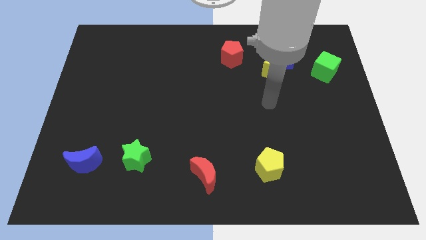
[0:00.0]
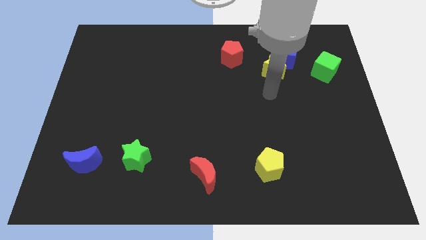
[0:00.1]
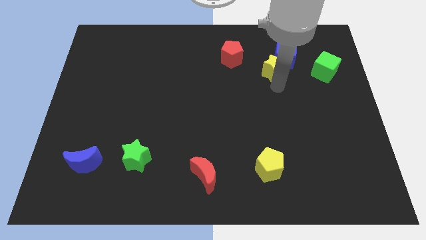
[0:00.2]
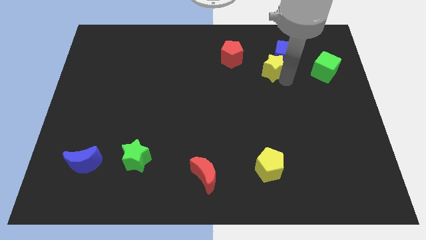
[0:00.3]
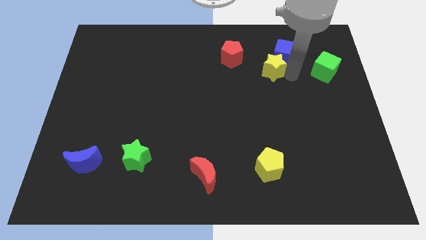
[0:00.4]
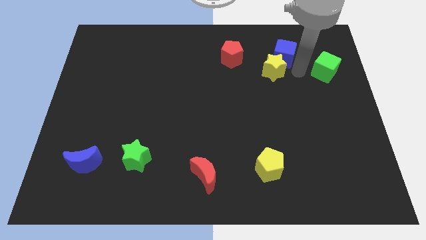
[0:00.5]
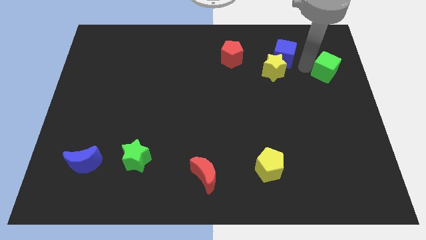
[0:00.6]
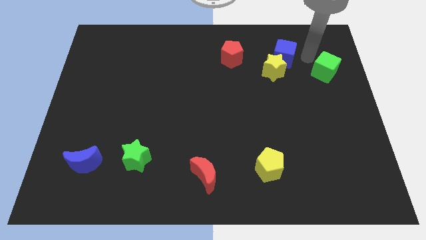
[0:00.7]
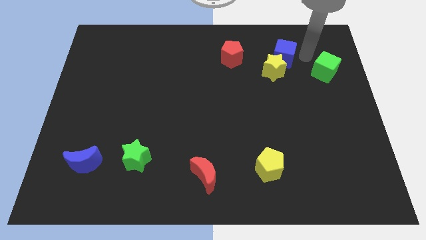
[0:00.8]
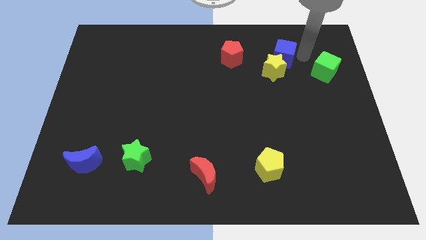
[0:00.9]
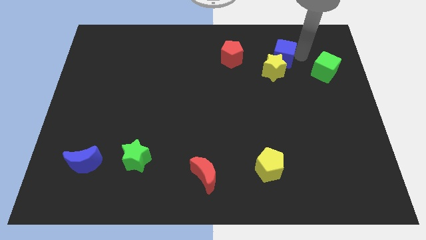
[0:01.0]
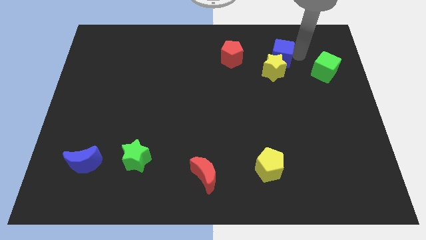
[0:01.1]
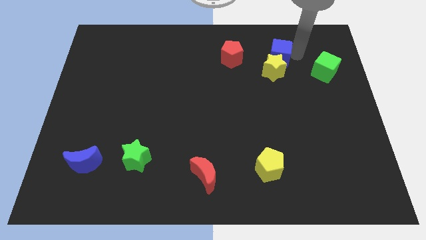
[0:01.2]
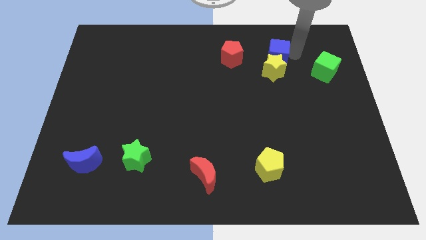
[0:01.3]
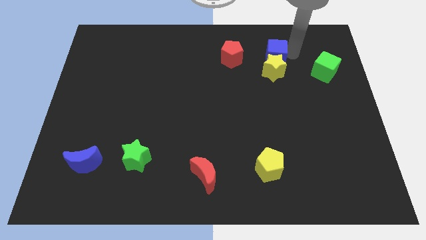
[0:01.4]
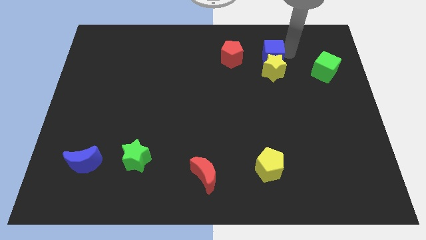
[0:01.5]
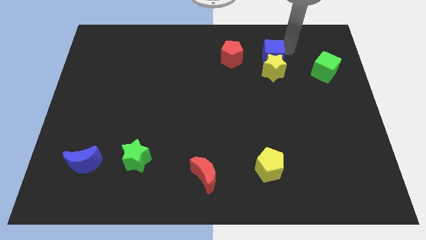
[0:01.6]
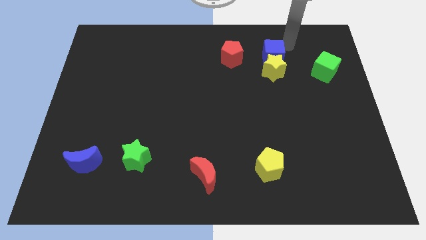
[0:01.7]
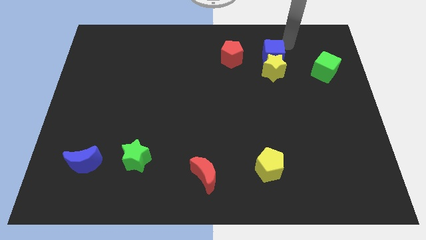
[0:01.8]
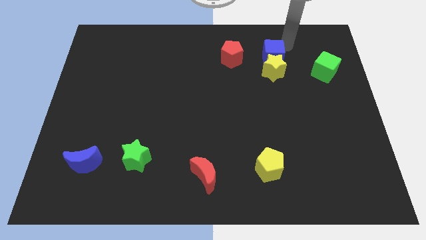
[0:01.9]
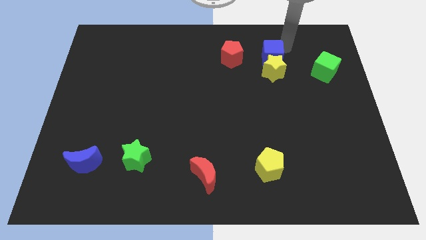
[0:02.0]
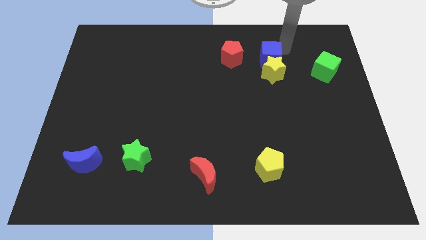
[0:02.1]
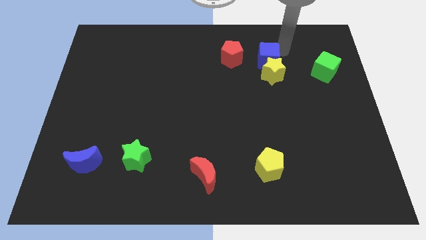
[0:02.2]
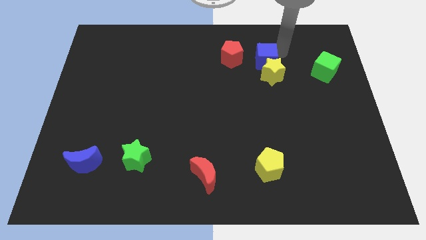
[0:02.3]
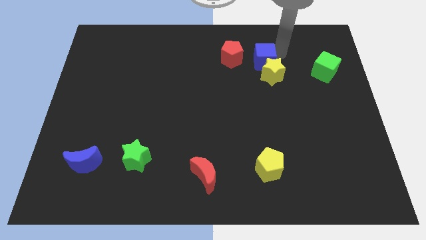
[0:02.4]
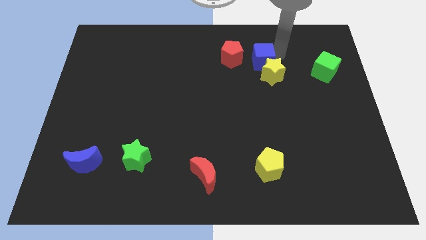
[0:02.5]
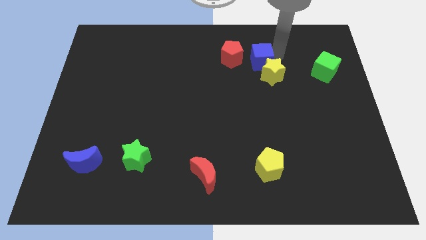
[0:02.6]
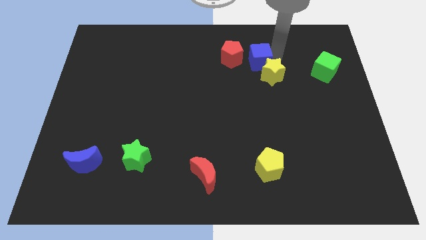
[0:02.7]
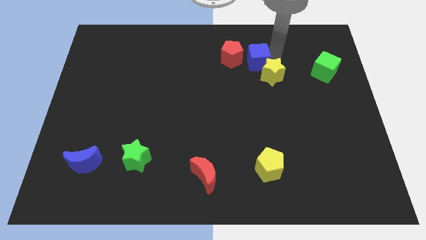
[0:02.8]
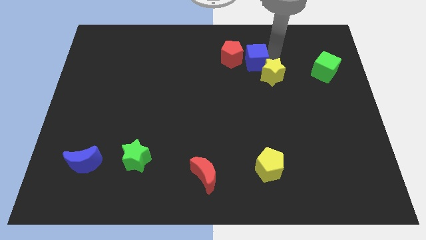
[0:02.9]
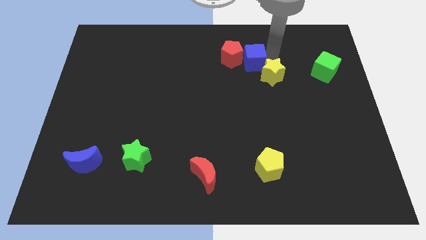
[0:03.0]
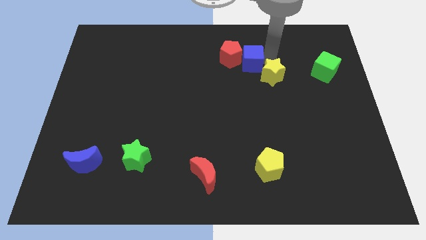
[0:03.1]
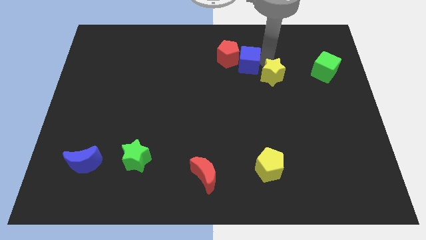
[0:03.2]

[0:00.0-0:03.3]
push the blue cube downwards and to the left slightly

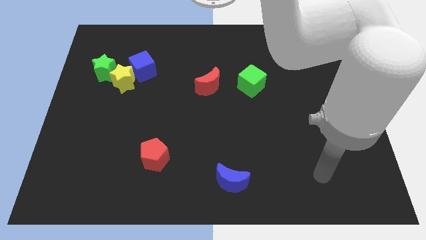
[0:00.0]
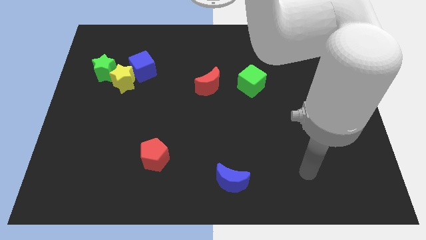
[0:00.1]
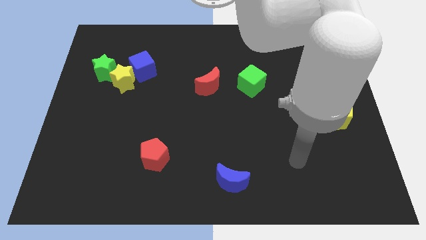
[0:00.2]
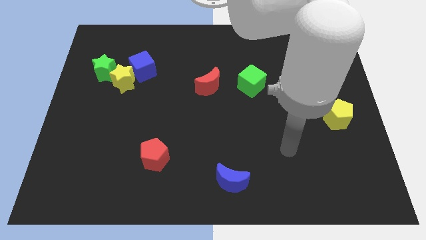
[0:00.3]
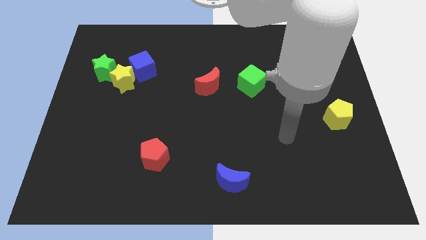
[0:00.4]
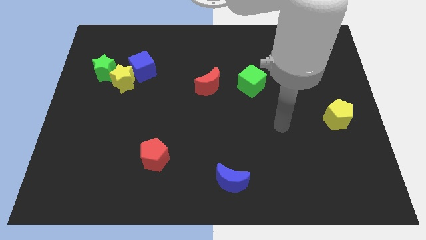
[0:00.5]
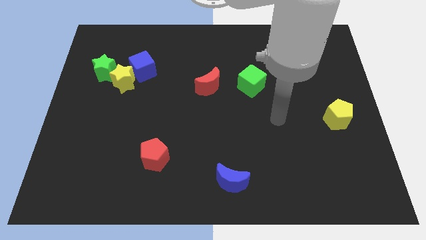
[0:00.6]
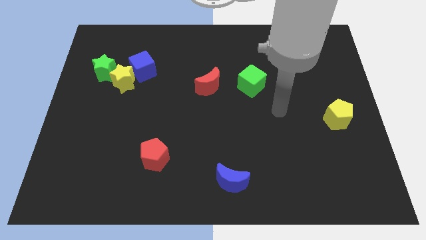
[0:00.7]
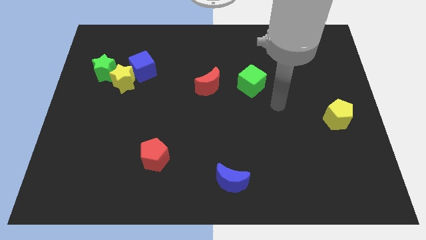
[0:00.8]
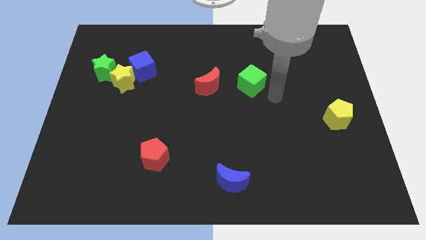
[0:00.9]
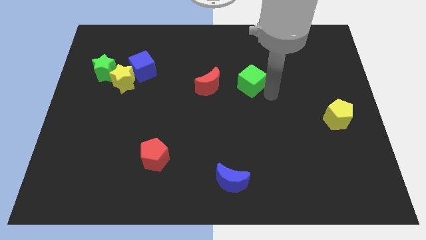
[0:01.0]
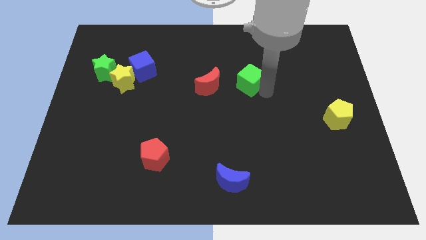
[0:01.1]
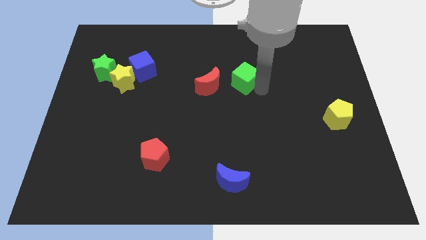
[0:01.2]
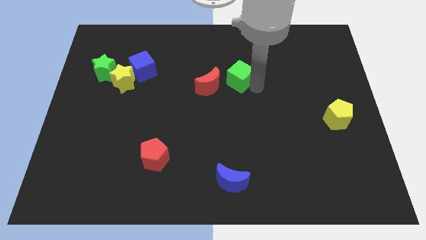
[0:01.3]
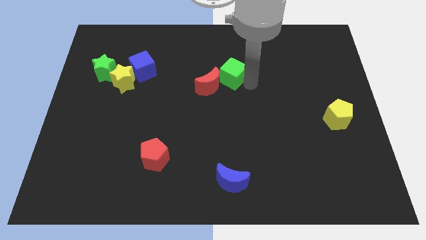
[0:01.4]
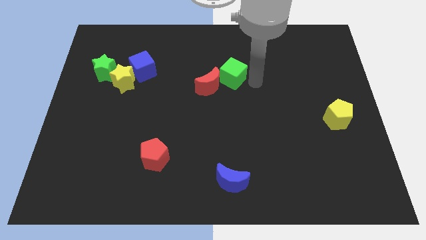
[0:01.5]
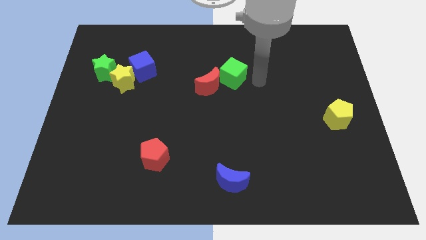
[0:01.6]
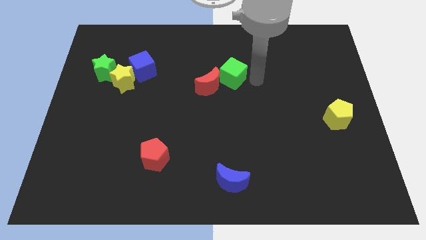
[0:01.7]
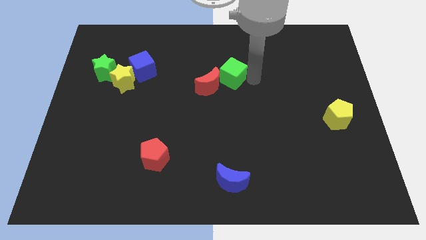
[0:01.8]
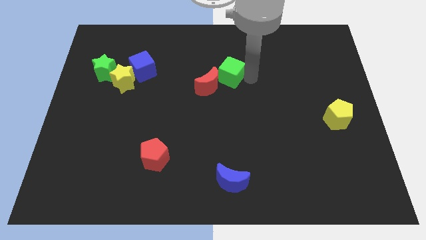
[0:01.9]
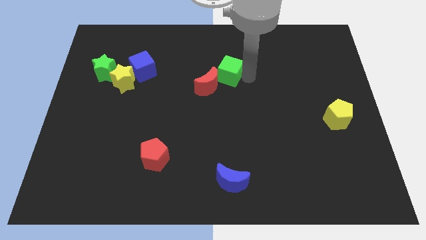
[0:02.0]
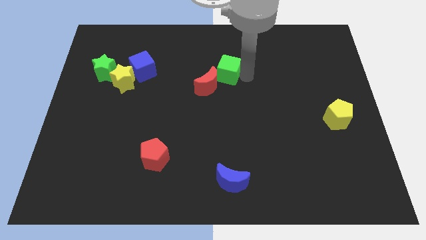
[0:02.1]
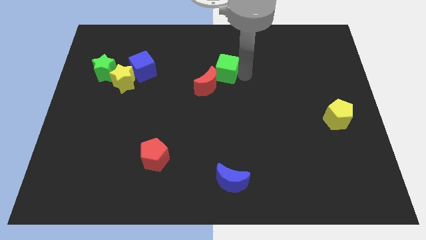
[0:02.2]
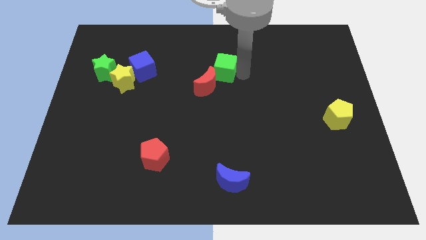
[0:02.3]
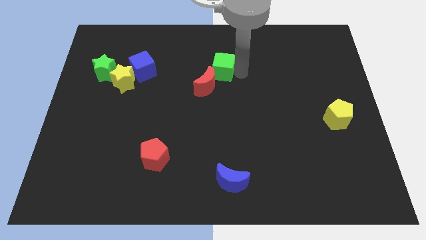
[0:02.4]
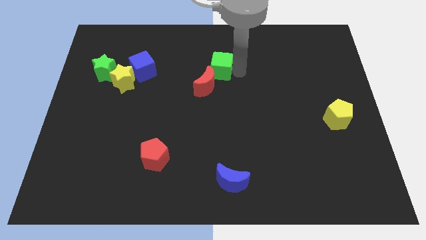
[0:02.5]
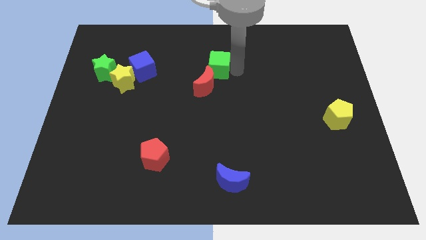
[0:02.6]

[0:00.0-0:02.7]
slightly move the green cube left

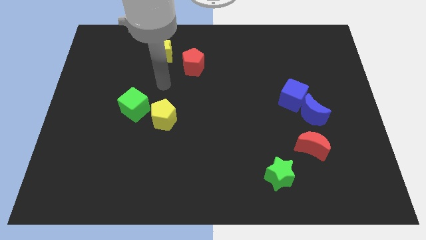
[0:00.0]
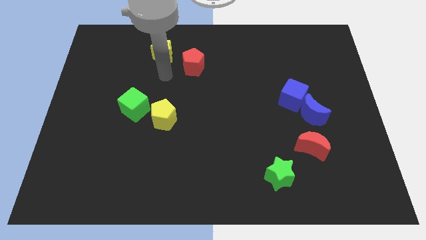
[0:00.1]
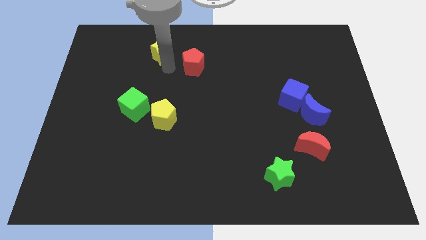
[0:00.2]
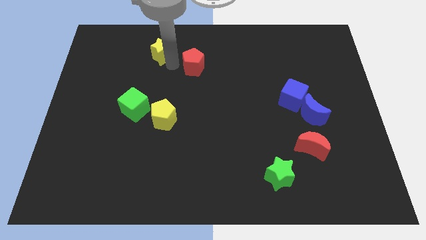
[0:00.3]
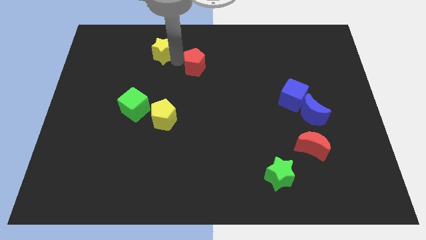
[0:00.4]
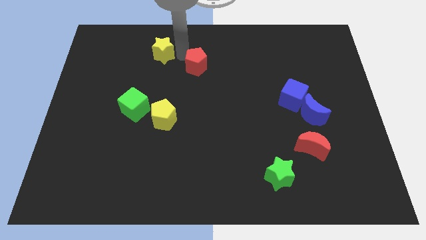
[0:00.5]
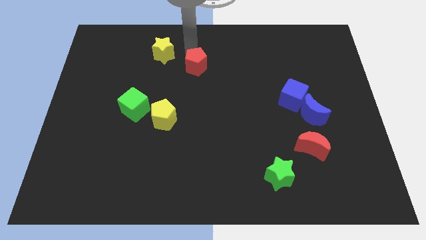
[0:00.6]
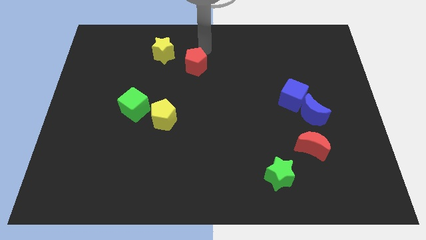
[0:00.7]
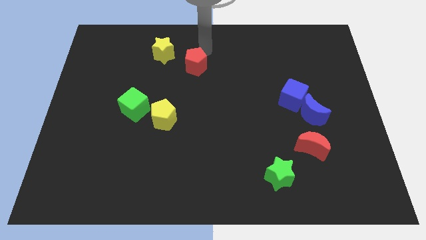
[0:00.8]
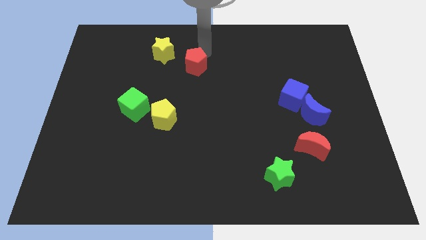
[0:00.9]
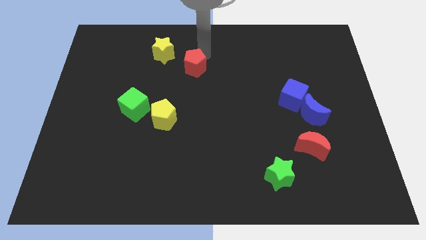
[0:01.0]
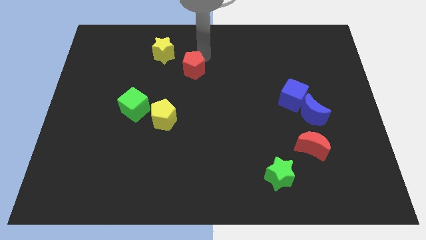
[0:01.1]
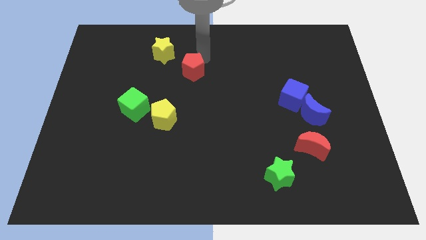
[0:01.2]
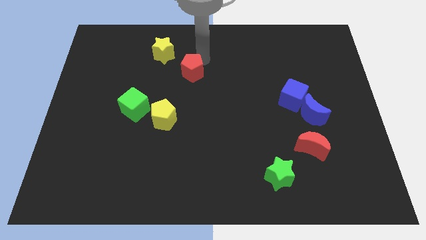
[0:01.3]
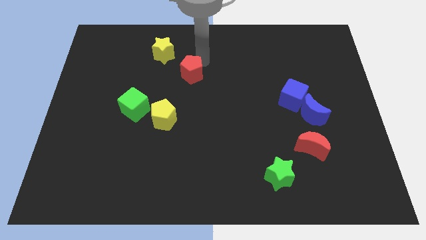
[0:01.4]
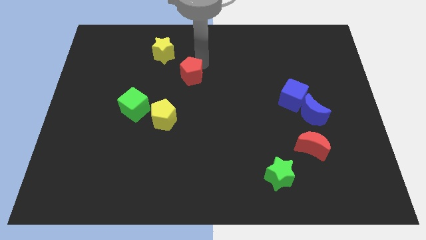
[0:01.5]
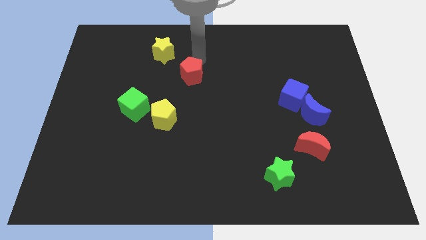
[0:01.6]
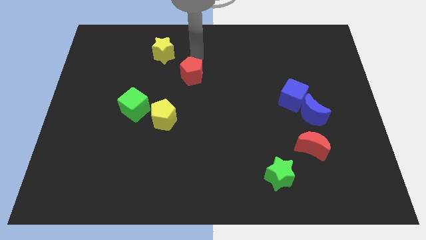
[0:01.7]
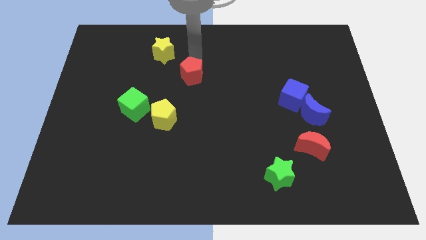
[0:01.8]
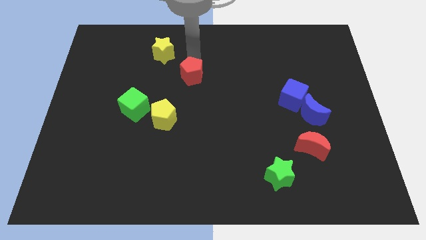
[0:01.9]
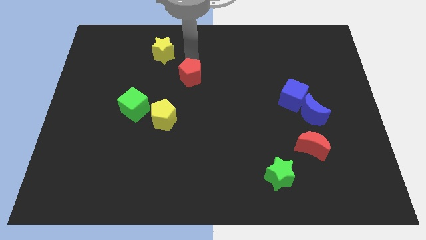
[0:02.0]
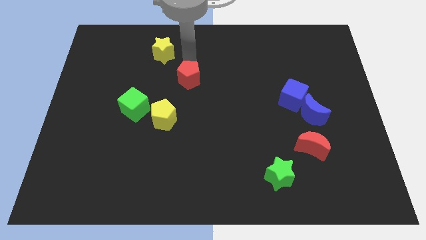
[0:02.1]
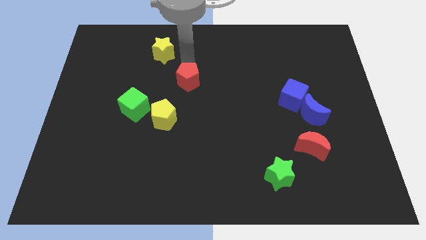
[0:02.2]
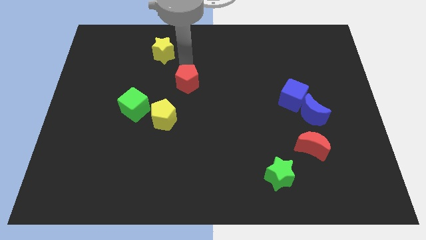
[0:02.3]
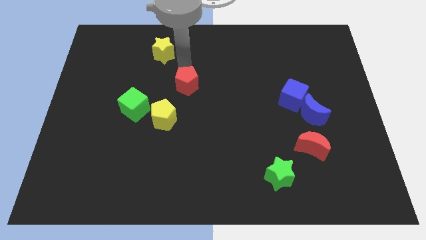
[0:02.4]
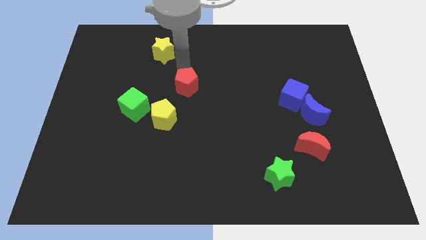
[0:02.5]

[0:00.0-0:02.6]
slightly slide the red pentagon downwards
